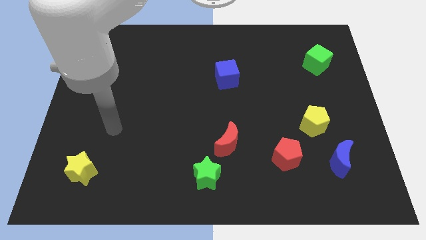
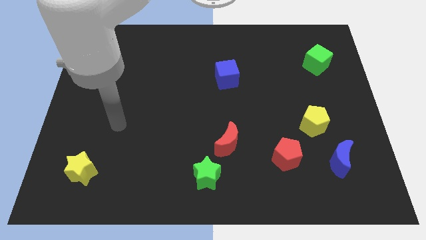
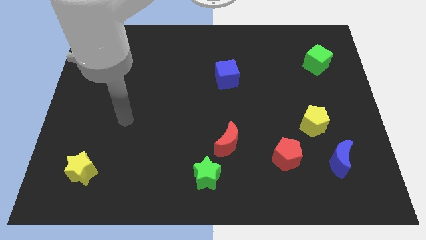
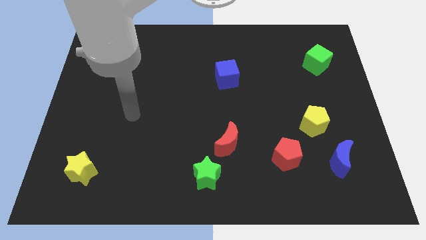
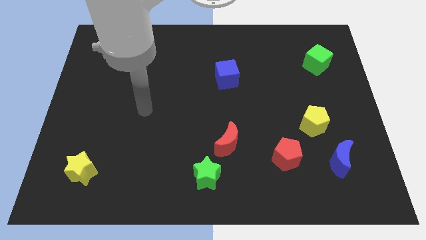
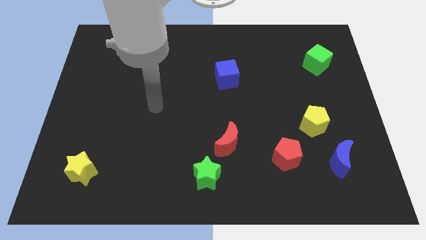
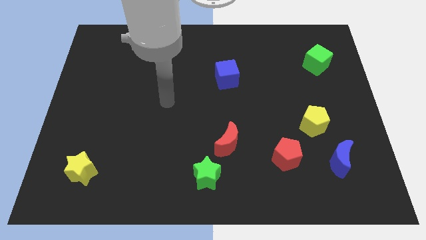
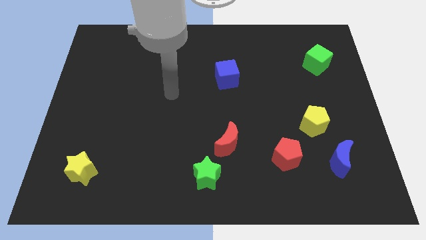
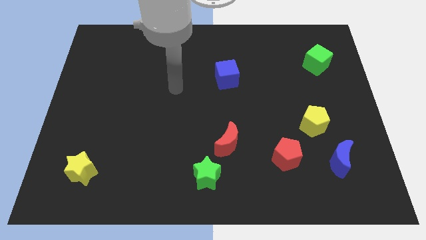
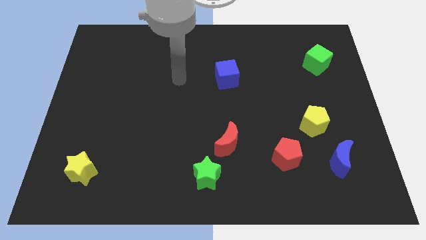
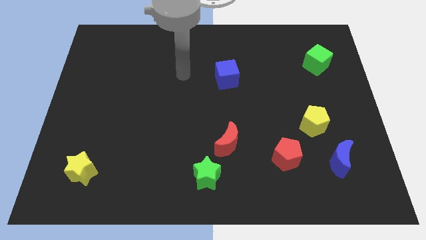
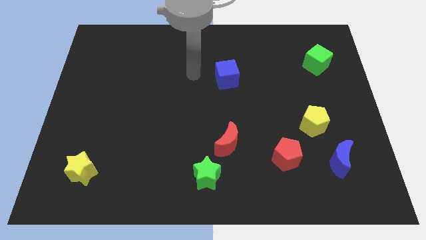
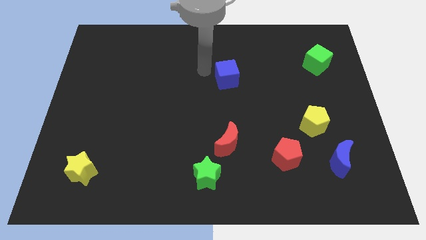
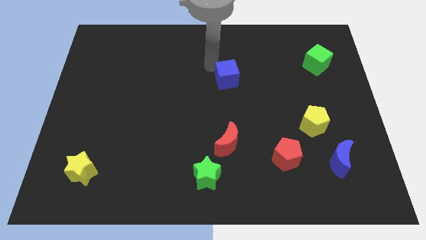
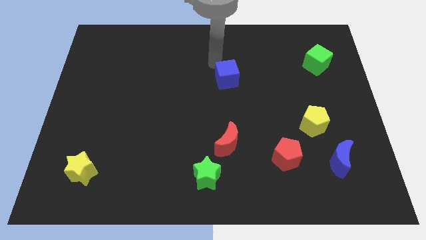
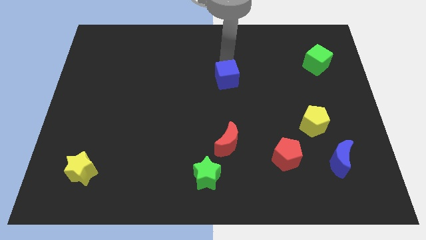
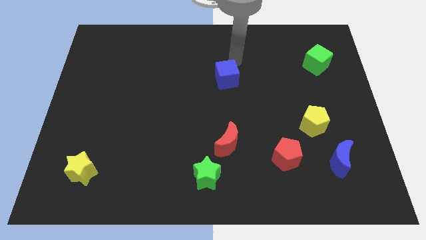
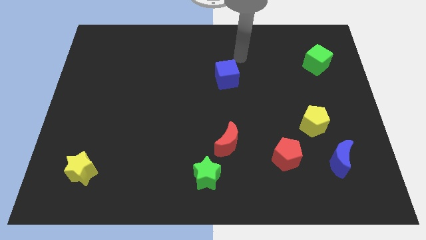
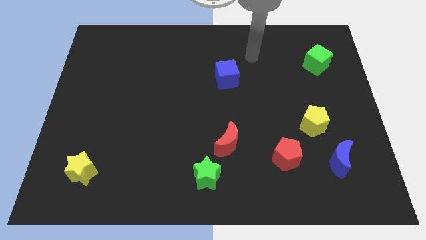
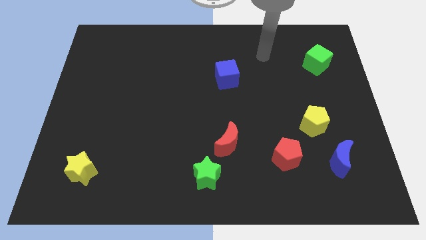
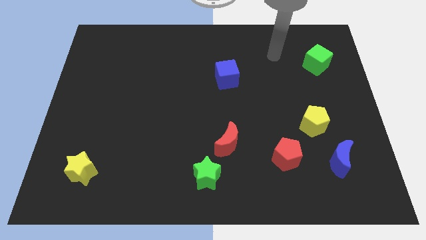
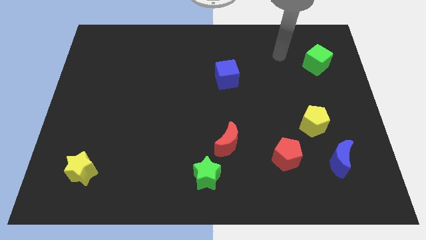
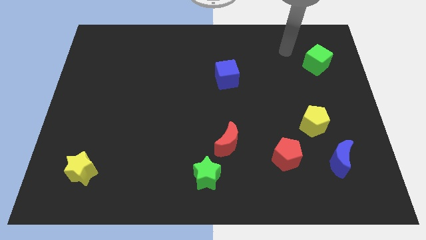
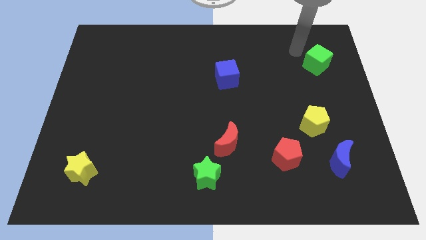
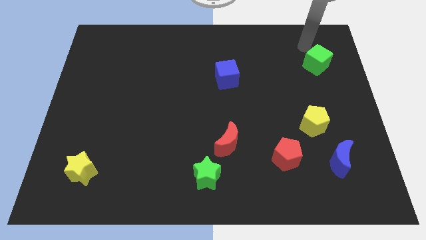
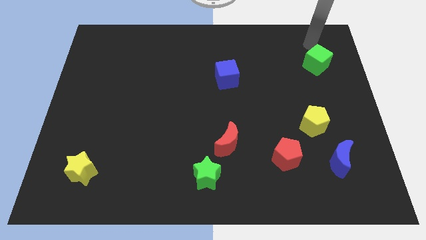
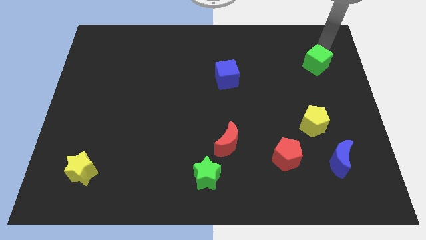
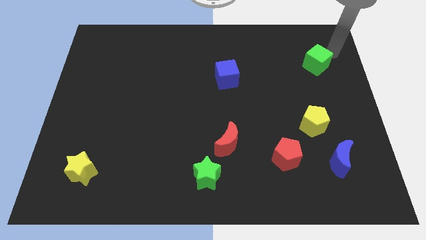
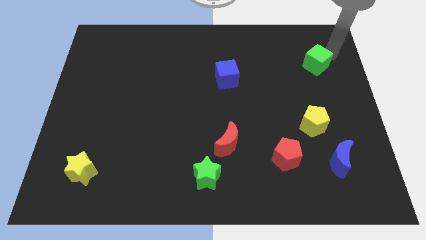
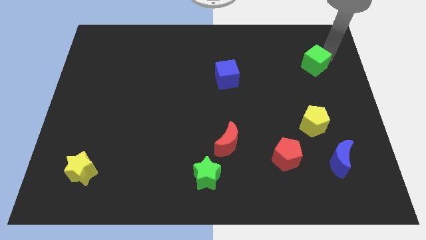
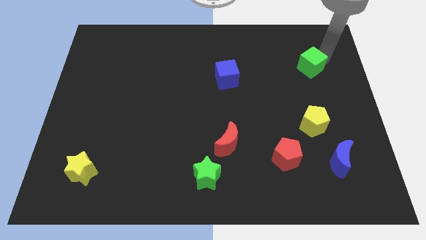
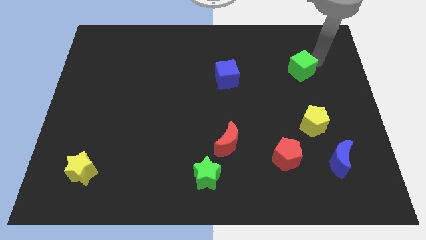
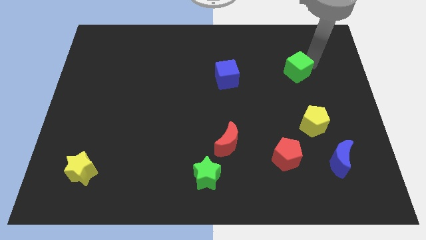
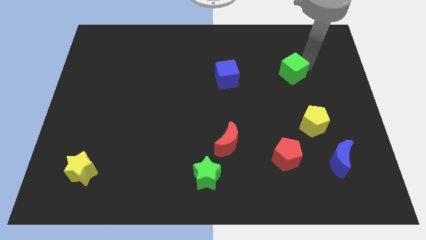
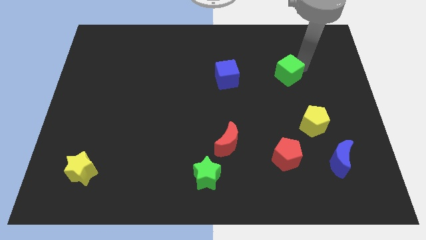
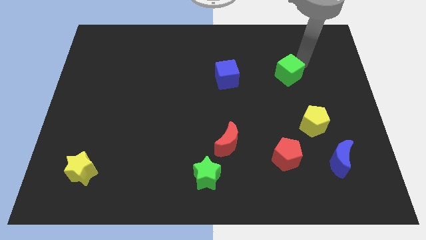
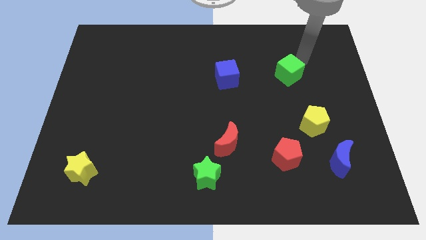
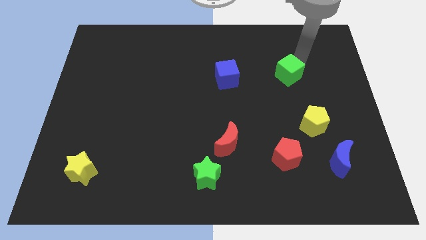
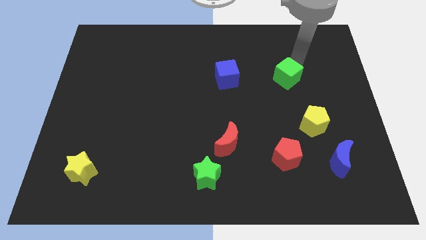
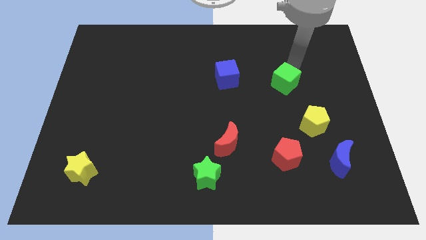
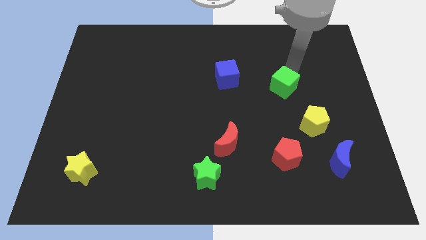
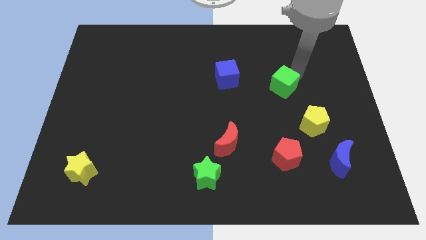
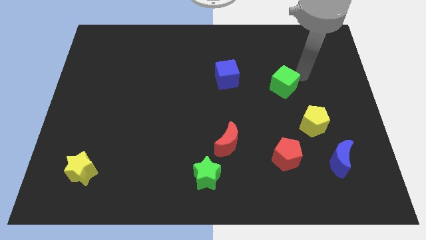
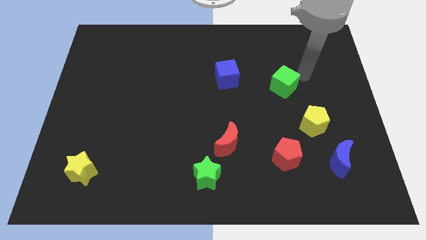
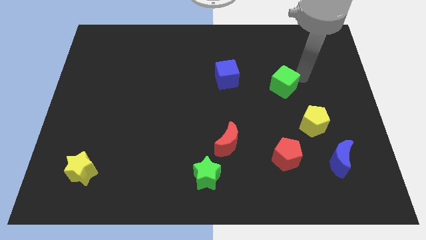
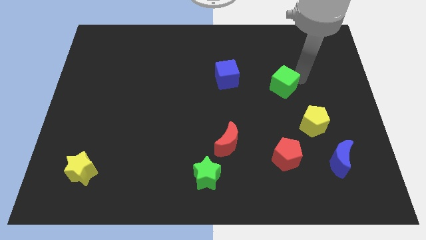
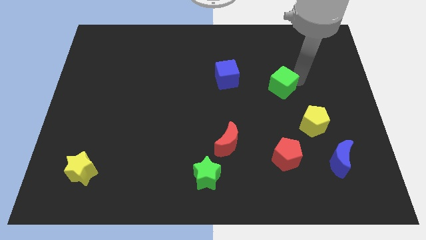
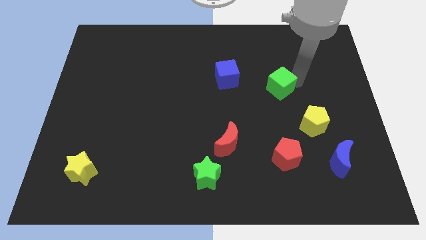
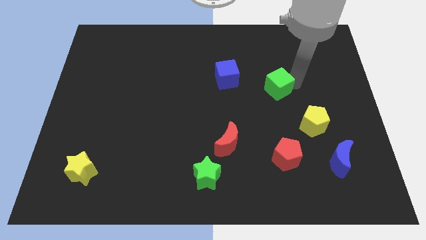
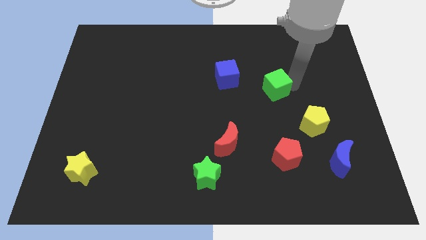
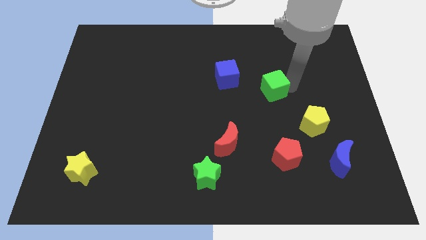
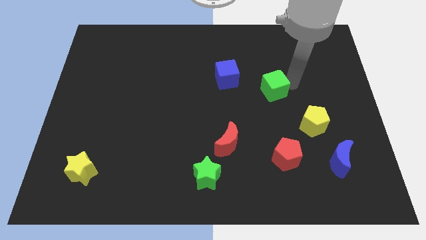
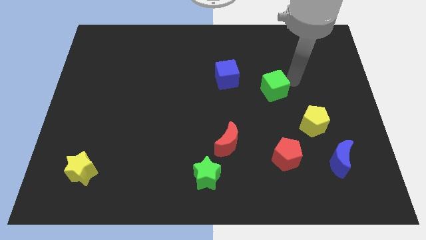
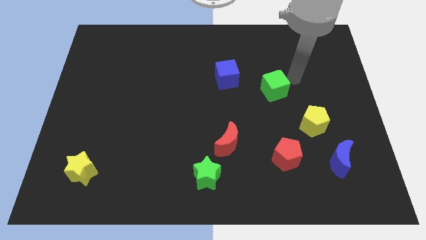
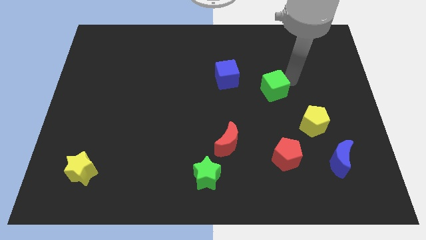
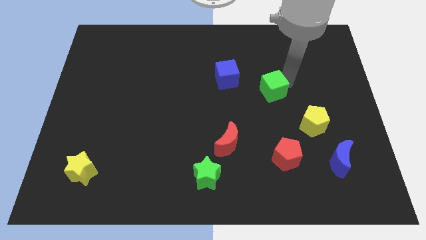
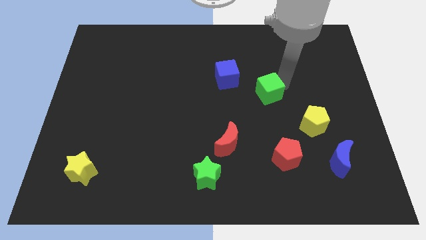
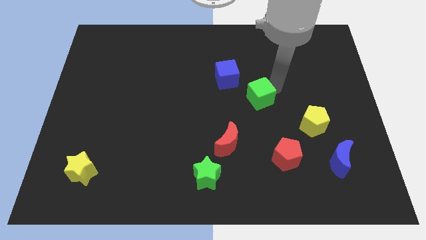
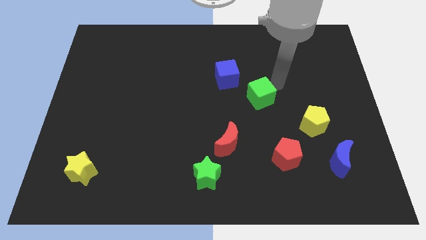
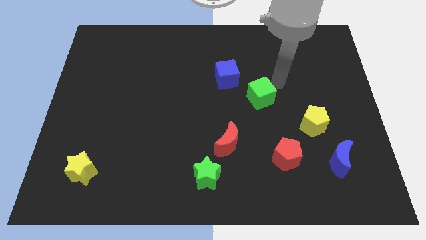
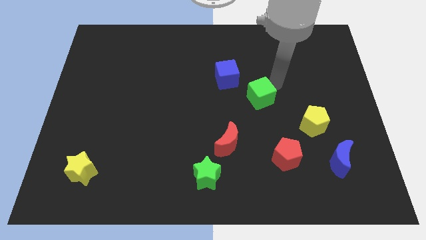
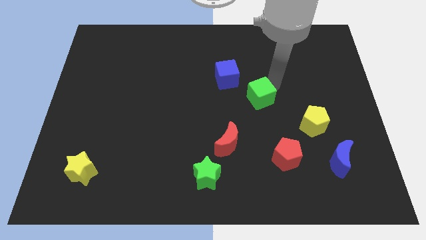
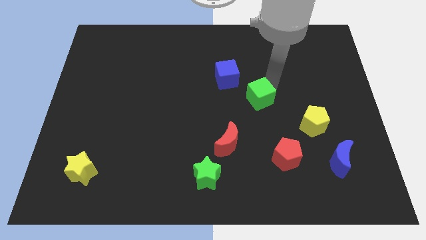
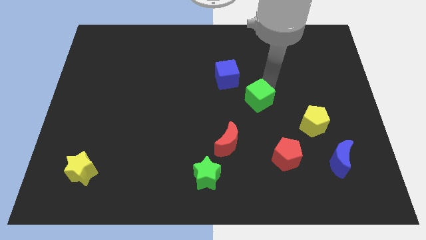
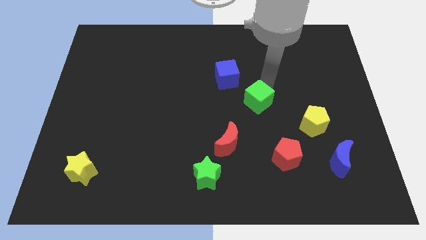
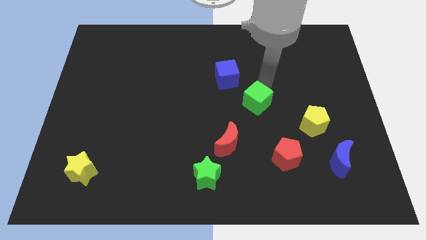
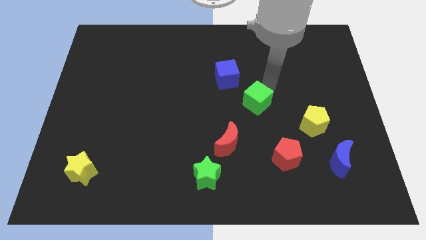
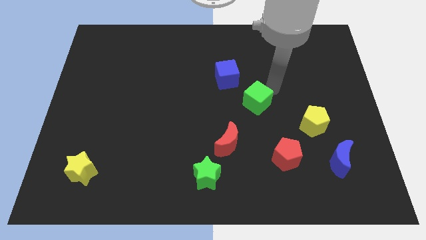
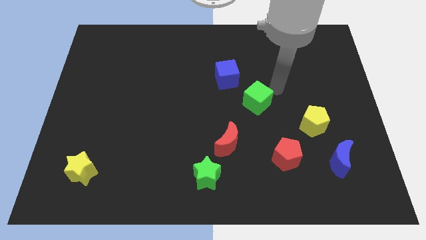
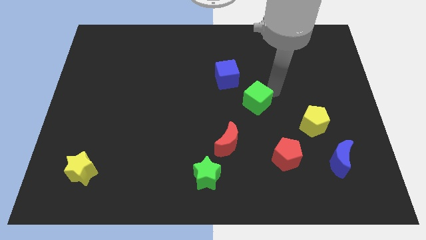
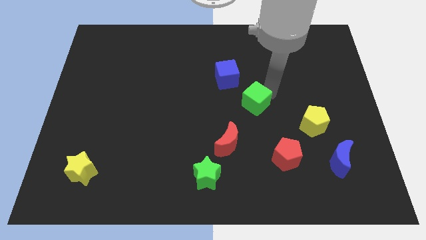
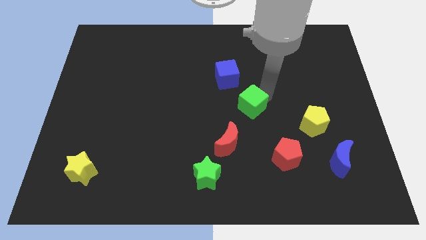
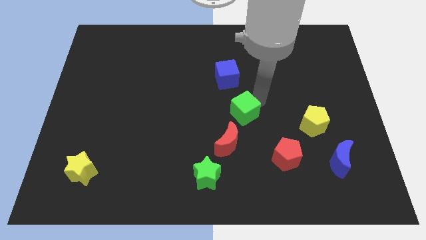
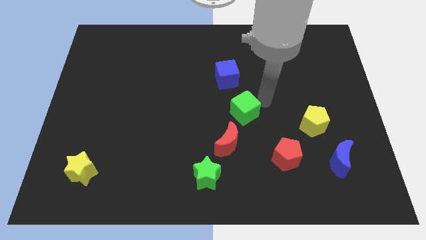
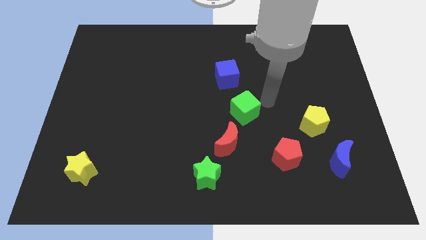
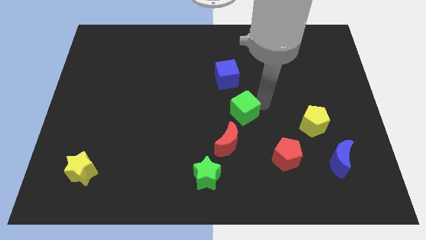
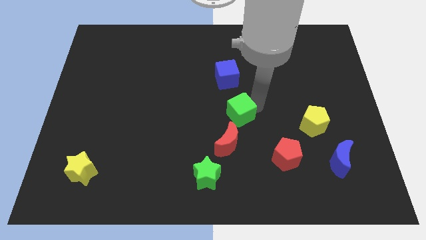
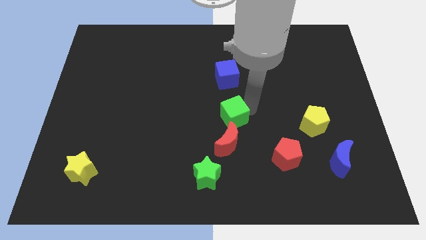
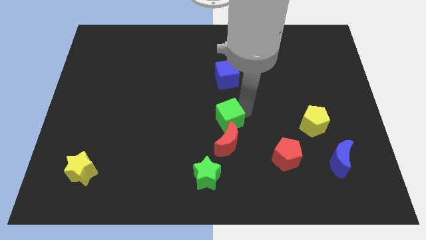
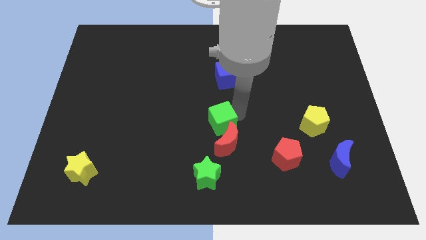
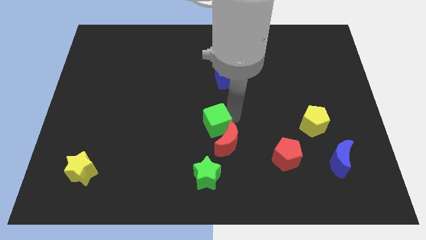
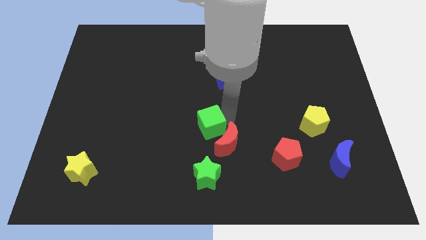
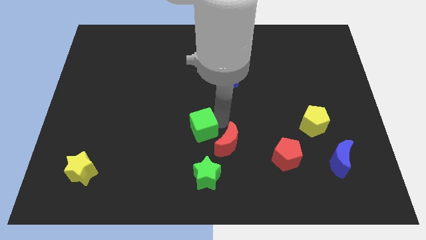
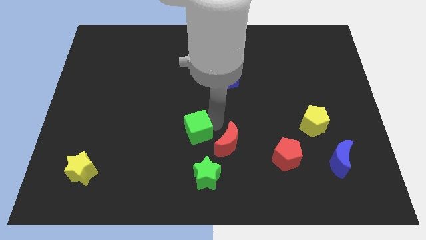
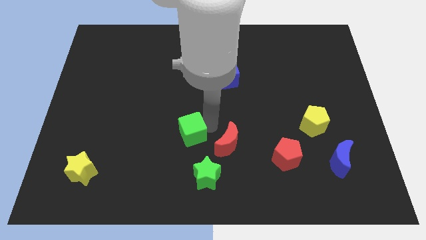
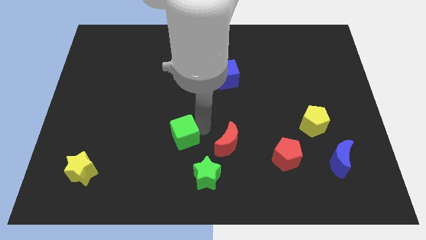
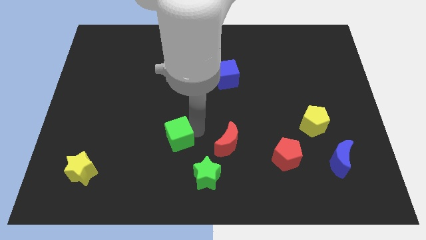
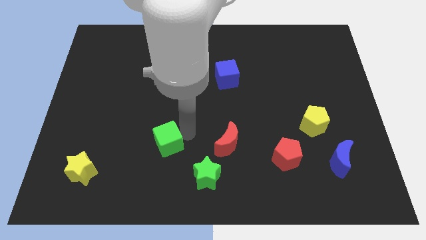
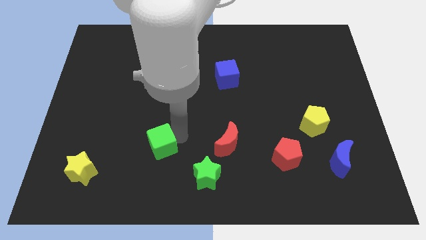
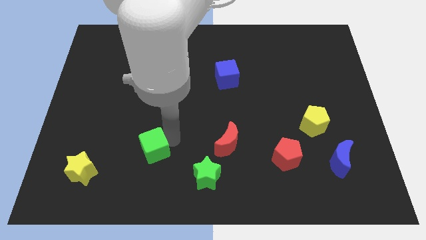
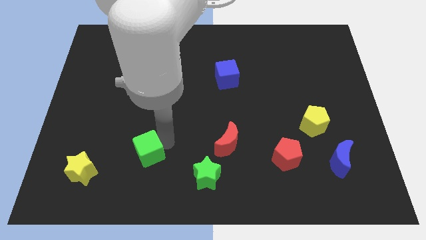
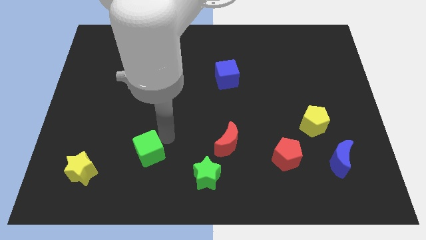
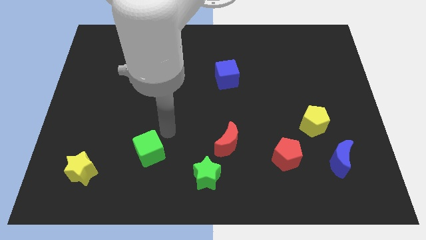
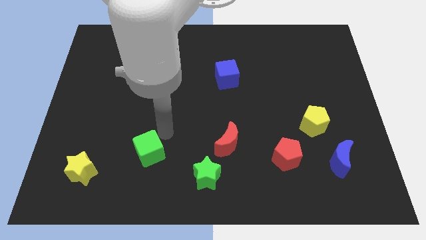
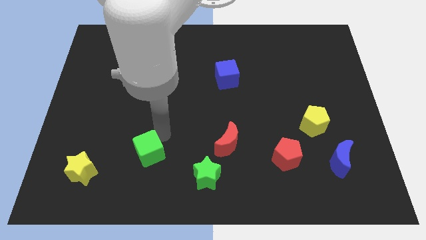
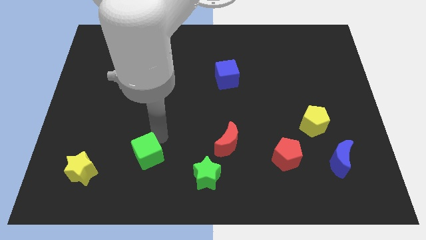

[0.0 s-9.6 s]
push the green cube to the right side of the yellow star
